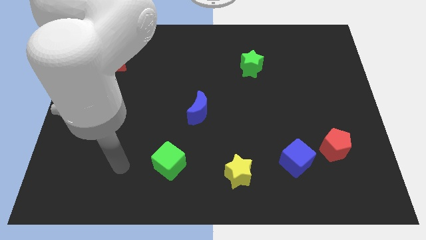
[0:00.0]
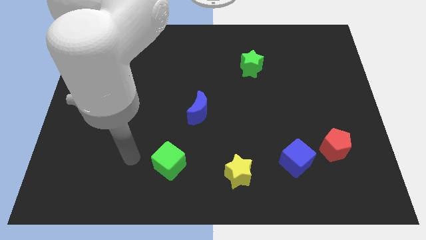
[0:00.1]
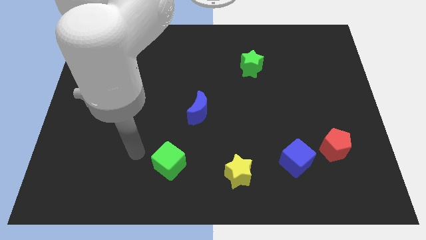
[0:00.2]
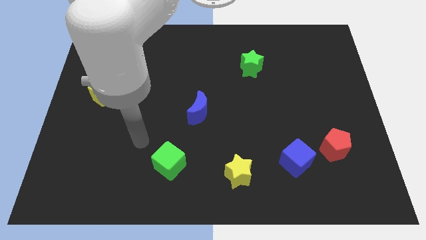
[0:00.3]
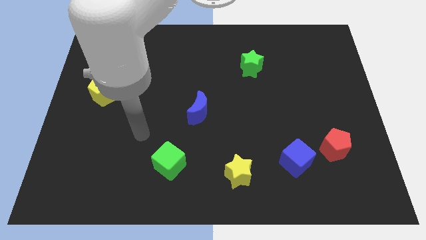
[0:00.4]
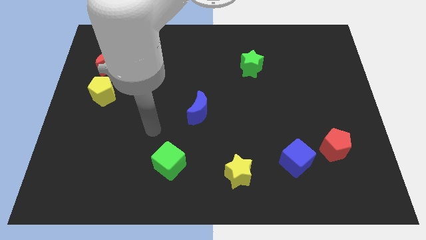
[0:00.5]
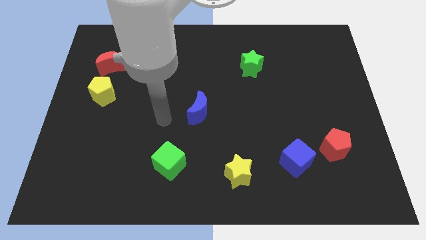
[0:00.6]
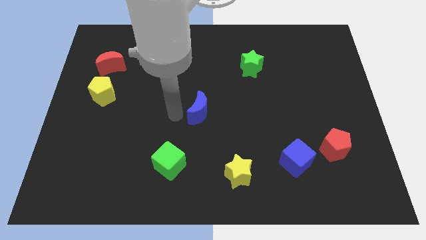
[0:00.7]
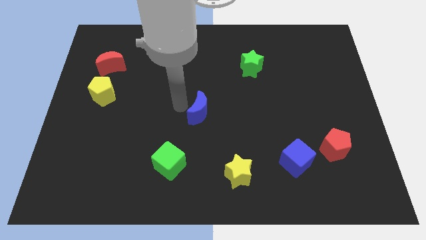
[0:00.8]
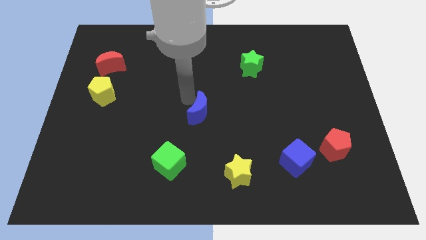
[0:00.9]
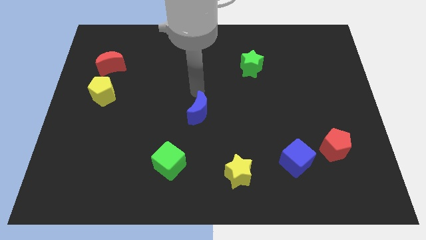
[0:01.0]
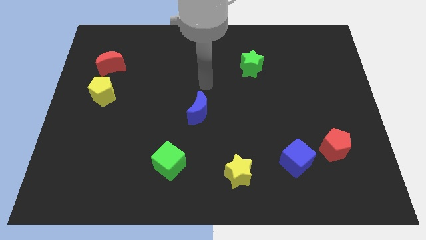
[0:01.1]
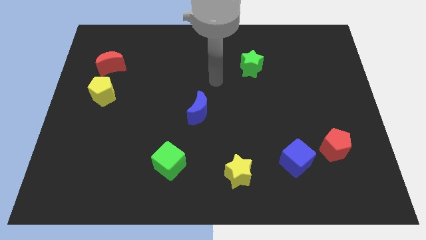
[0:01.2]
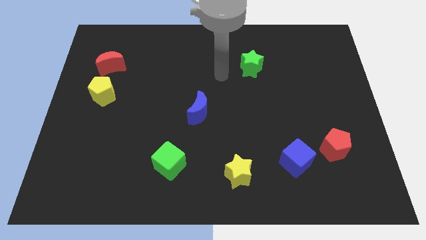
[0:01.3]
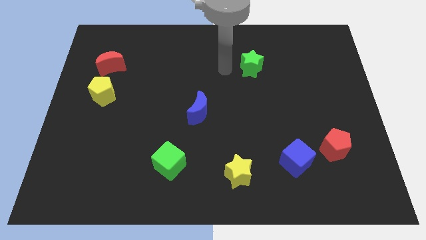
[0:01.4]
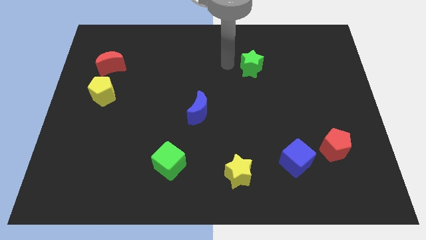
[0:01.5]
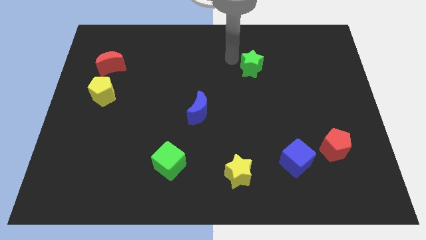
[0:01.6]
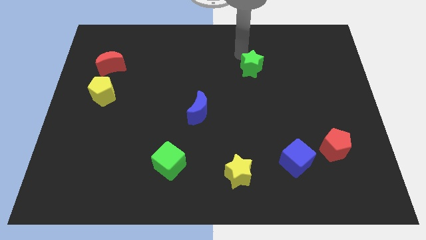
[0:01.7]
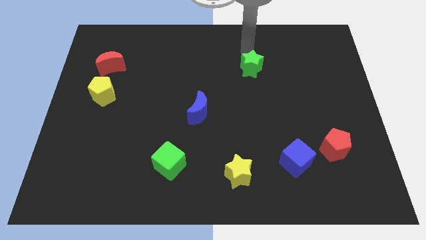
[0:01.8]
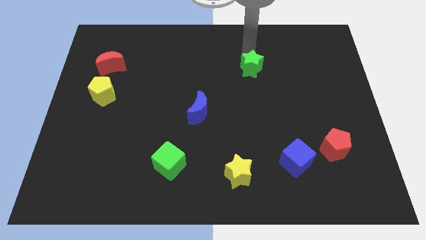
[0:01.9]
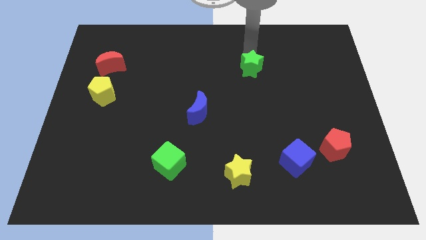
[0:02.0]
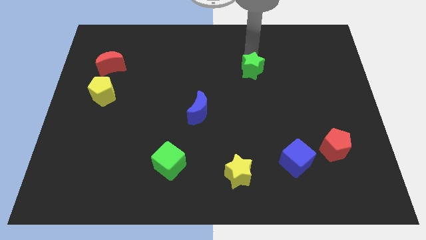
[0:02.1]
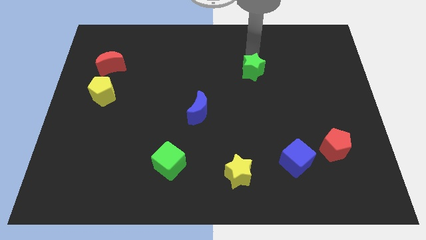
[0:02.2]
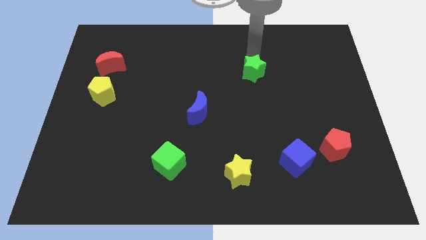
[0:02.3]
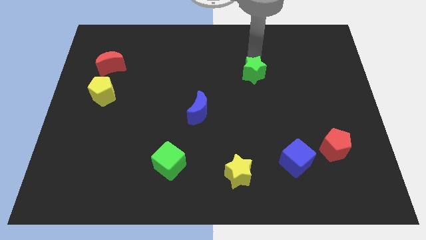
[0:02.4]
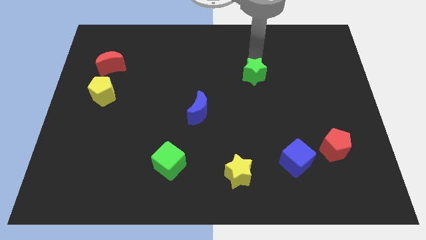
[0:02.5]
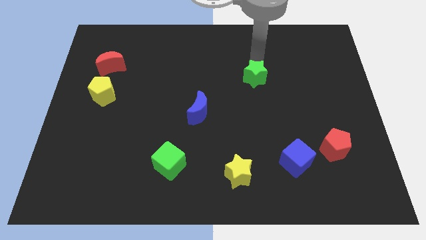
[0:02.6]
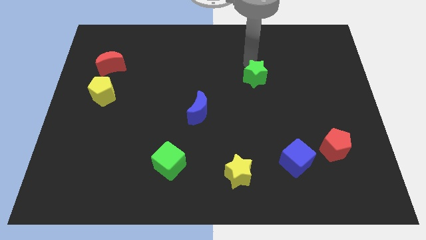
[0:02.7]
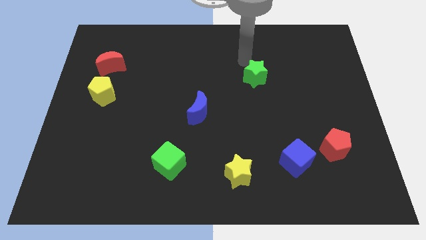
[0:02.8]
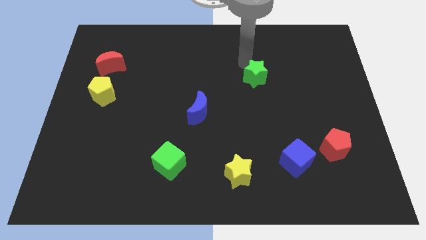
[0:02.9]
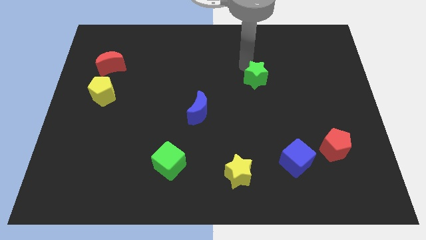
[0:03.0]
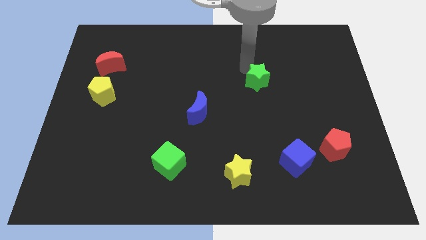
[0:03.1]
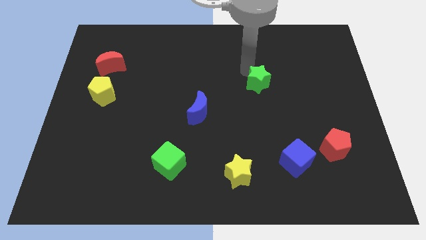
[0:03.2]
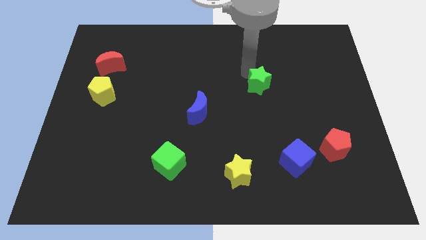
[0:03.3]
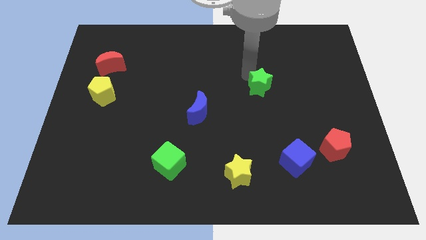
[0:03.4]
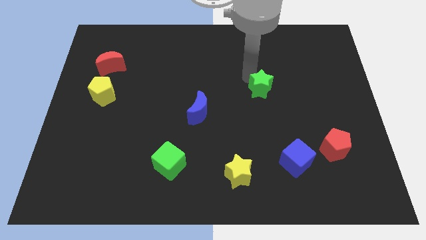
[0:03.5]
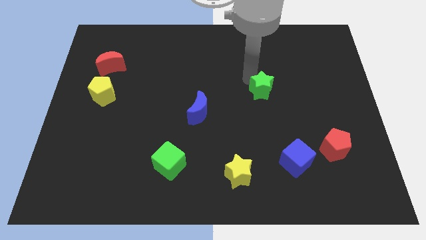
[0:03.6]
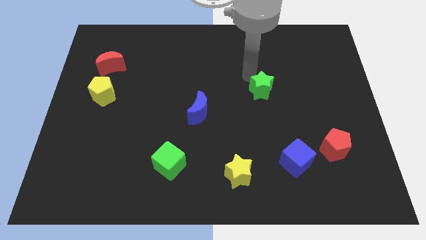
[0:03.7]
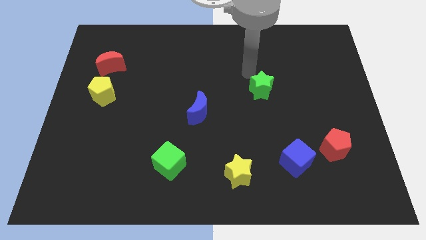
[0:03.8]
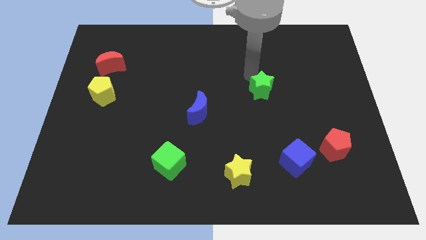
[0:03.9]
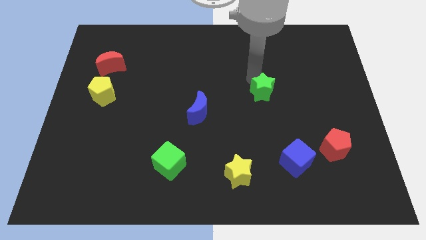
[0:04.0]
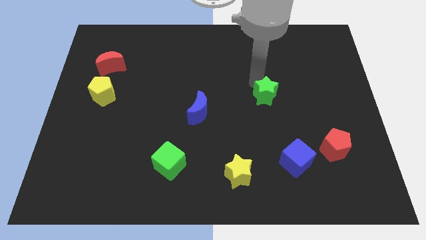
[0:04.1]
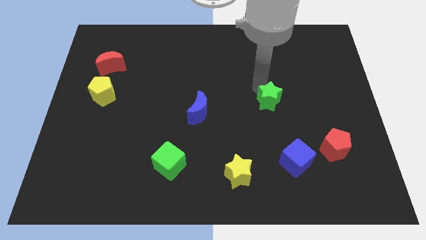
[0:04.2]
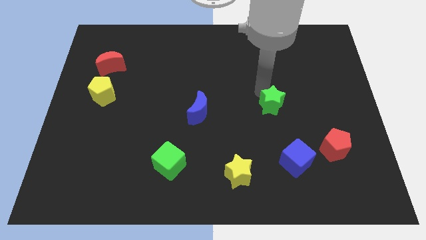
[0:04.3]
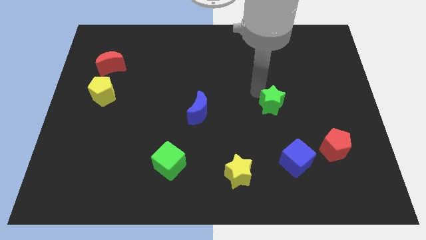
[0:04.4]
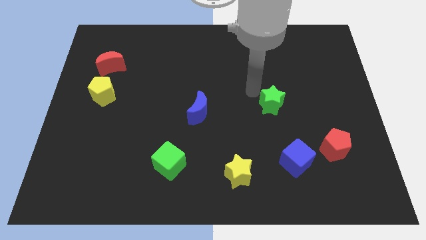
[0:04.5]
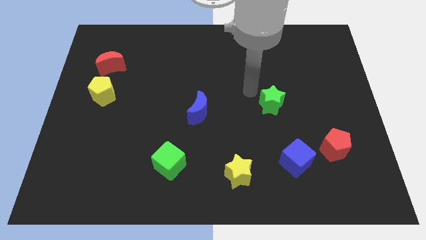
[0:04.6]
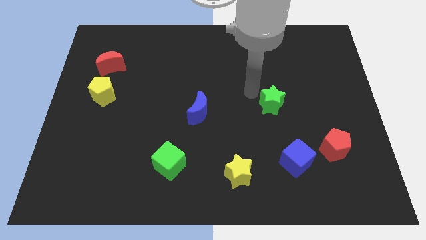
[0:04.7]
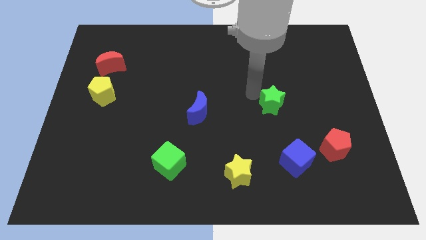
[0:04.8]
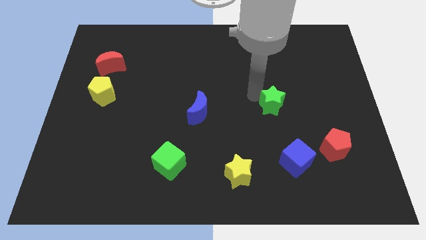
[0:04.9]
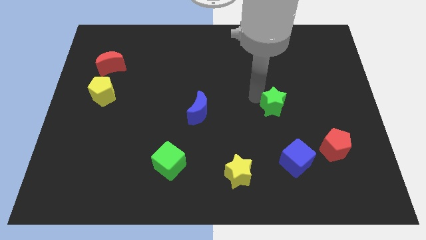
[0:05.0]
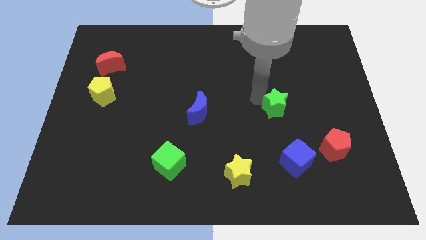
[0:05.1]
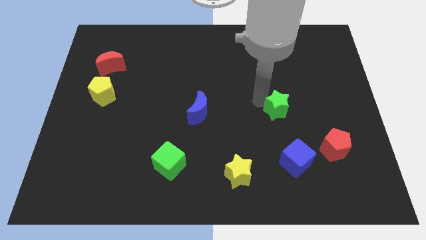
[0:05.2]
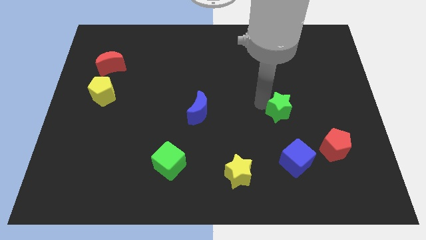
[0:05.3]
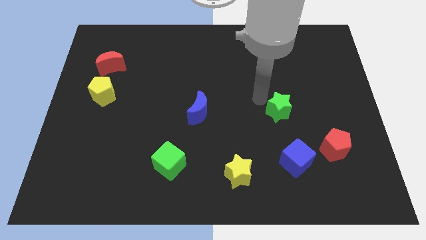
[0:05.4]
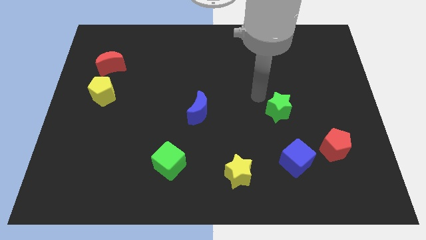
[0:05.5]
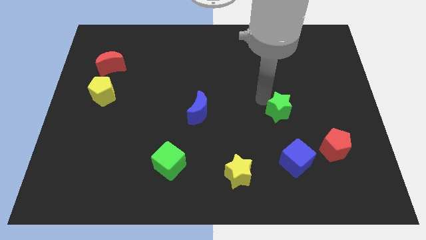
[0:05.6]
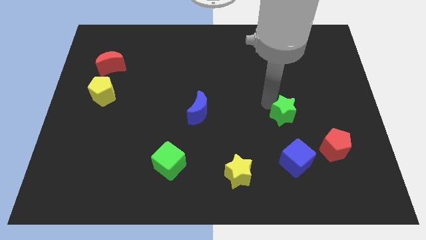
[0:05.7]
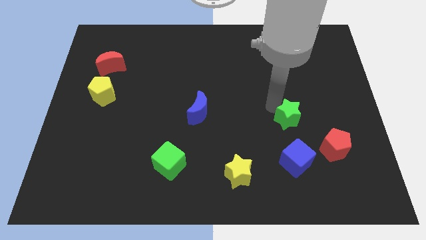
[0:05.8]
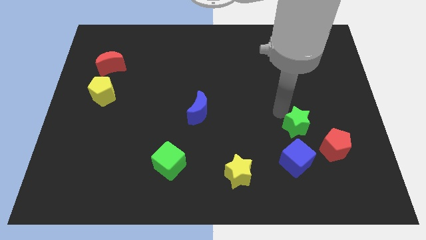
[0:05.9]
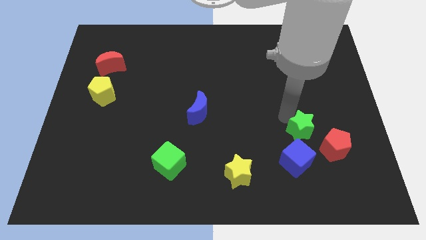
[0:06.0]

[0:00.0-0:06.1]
slide the green star diagonally up and to the right of the blue cube

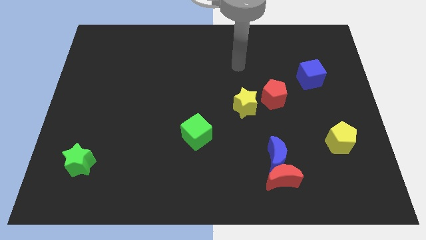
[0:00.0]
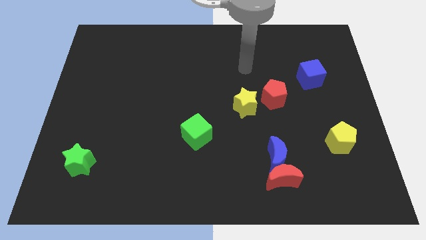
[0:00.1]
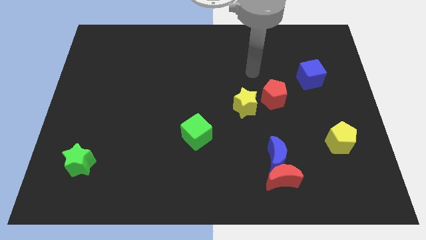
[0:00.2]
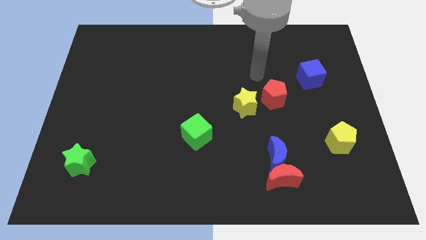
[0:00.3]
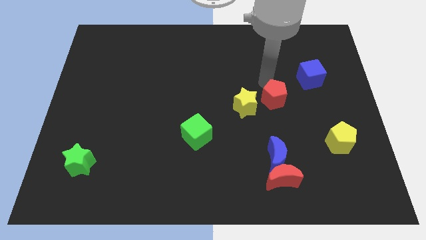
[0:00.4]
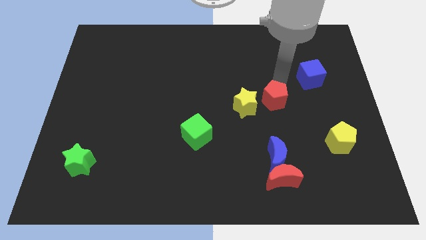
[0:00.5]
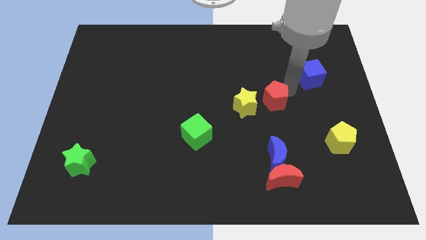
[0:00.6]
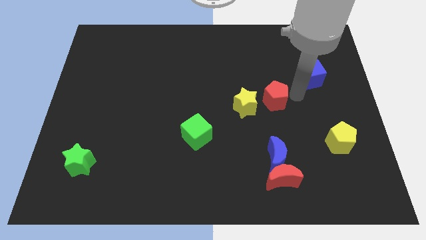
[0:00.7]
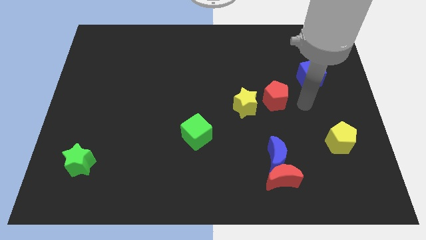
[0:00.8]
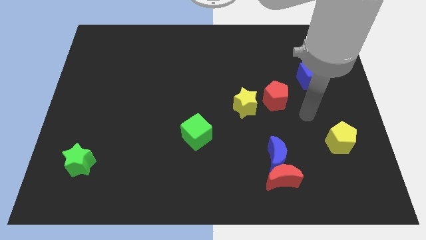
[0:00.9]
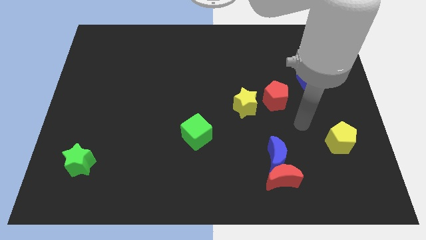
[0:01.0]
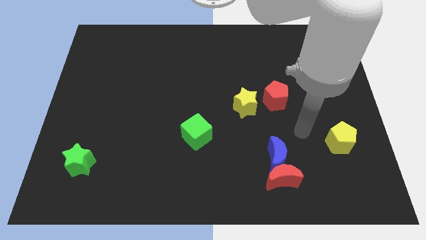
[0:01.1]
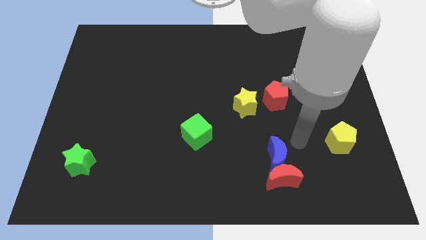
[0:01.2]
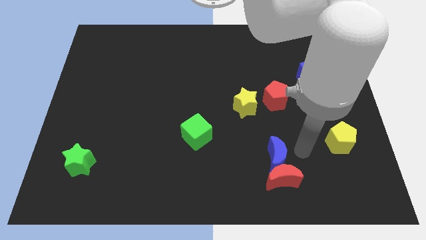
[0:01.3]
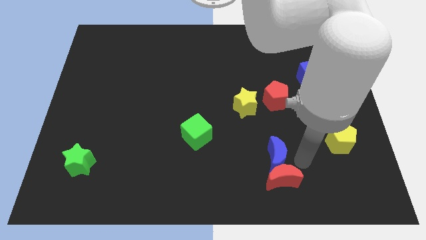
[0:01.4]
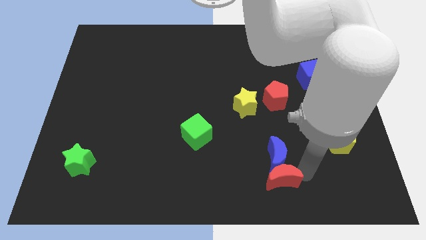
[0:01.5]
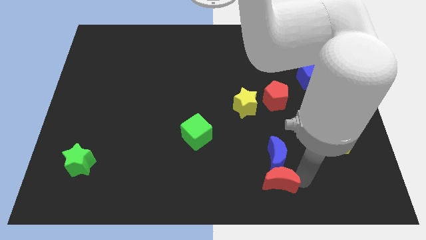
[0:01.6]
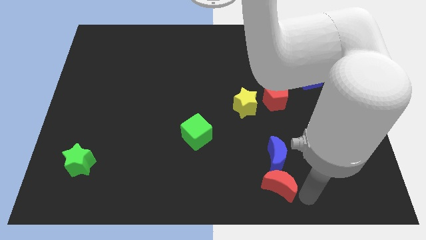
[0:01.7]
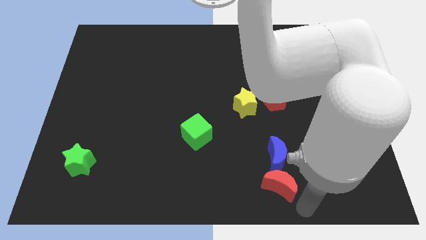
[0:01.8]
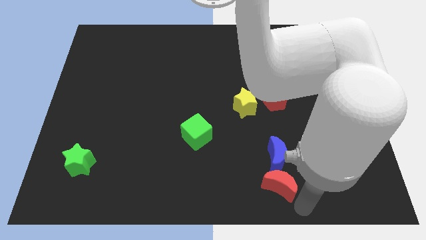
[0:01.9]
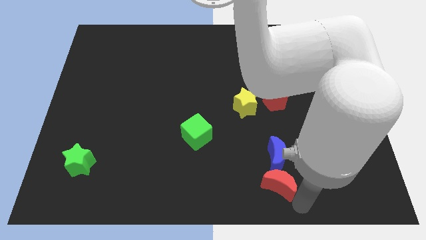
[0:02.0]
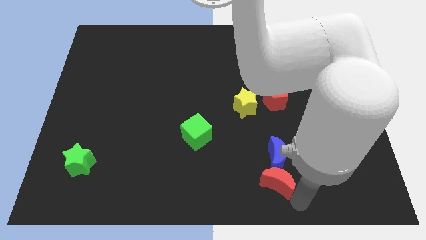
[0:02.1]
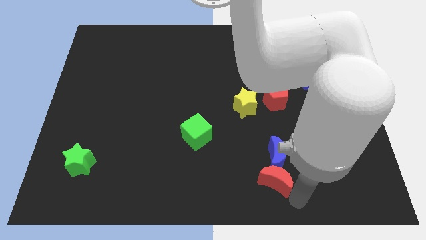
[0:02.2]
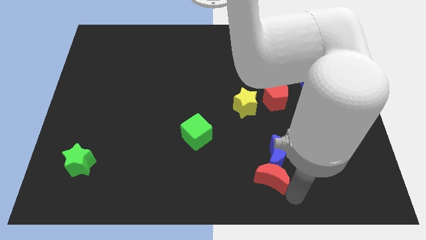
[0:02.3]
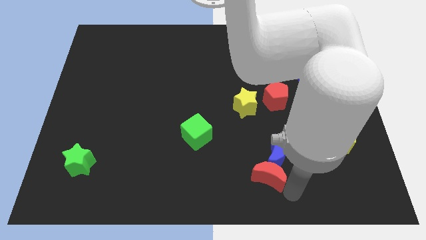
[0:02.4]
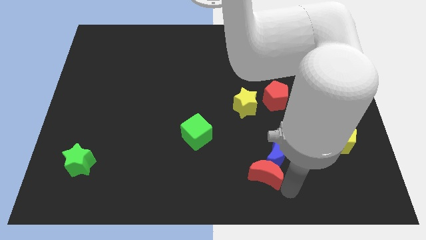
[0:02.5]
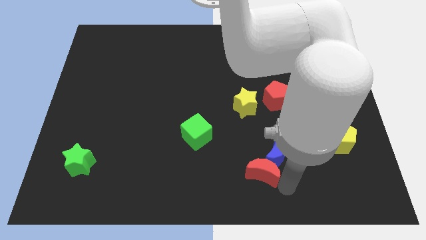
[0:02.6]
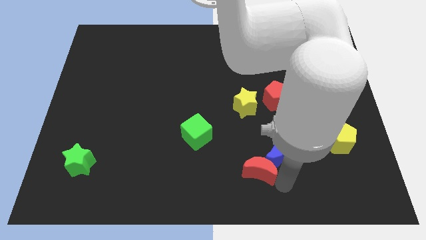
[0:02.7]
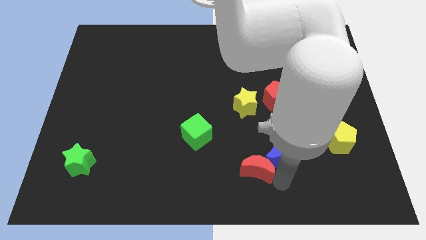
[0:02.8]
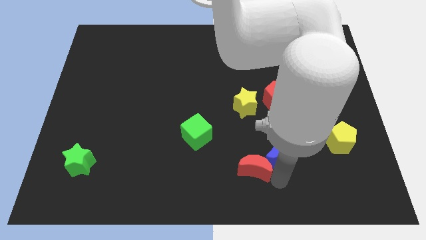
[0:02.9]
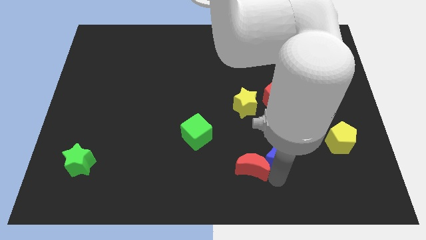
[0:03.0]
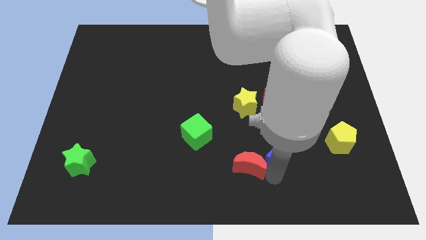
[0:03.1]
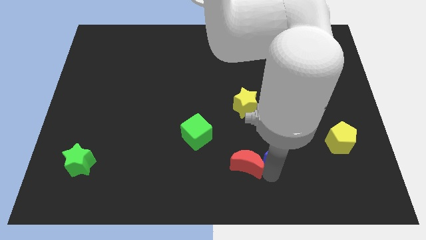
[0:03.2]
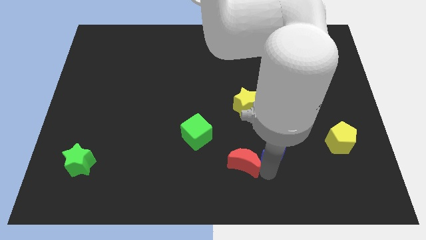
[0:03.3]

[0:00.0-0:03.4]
put the red moon to the bottom right of the green cube
